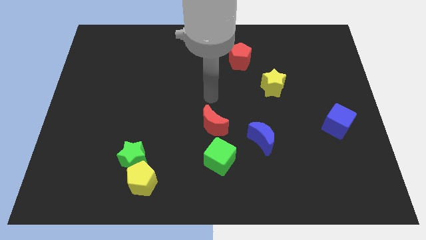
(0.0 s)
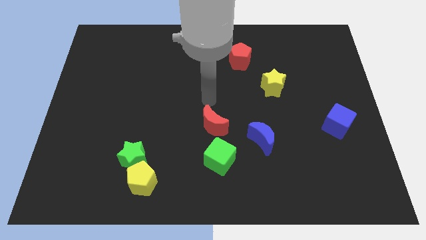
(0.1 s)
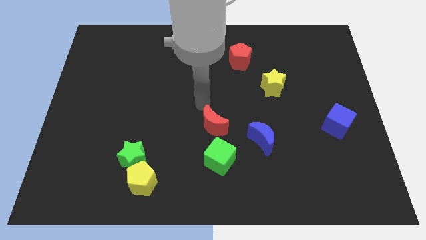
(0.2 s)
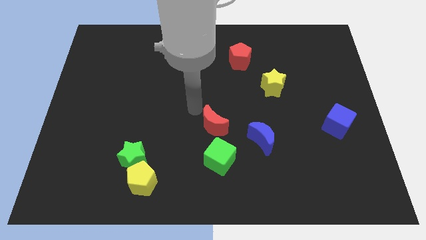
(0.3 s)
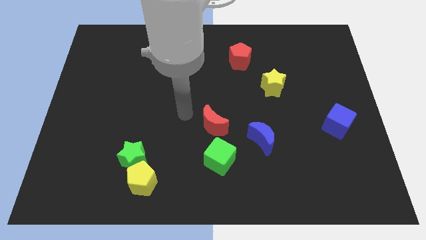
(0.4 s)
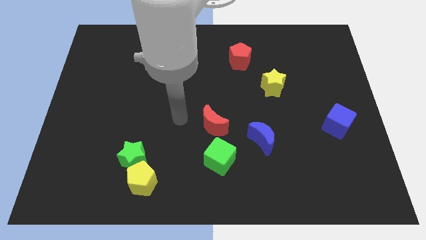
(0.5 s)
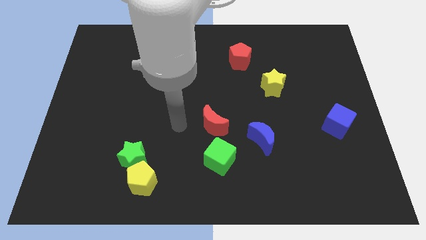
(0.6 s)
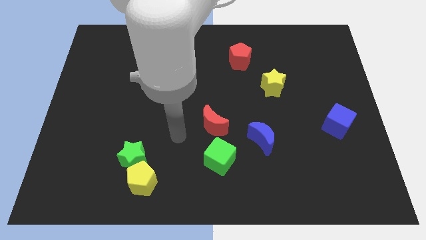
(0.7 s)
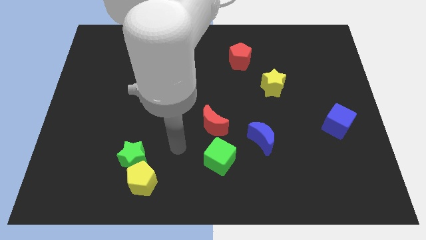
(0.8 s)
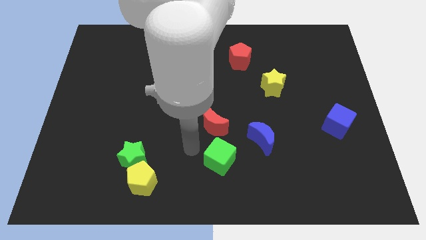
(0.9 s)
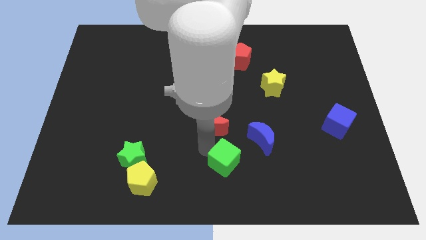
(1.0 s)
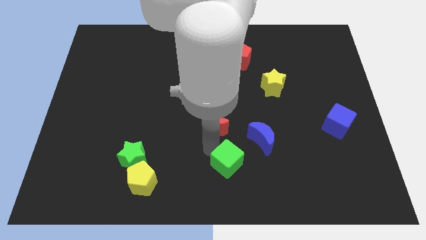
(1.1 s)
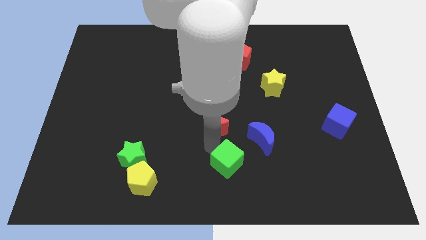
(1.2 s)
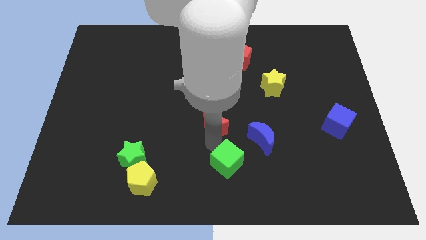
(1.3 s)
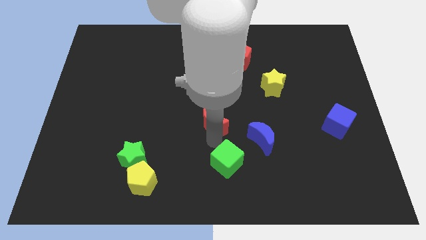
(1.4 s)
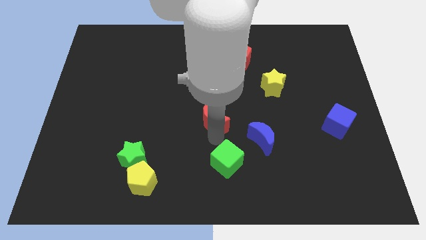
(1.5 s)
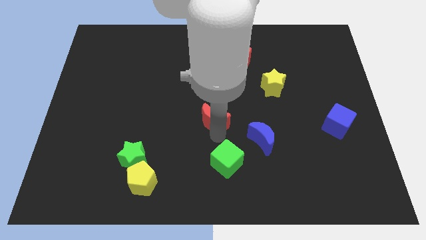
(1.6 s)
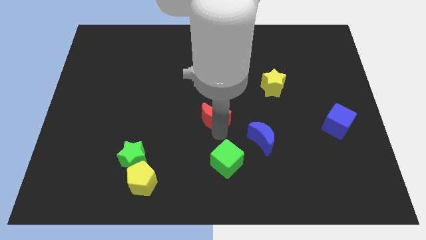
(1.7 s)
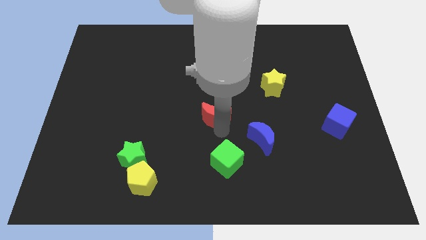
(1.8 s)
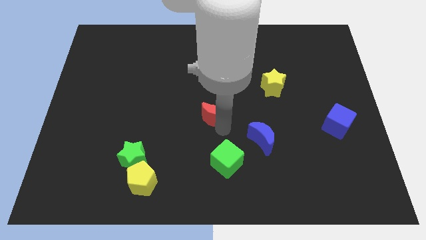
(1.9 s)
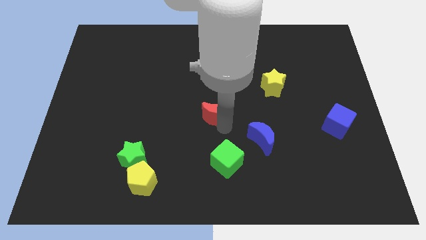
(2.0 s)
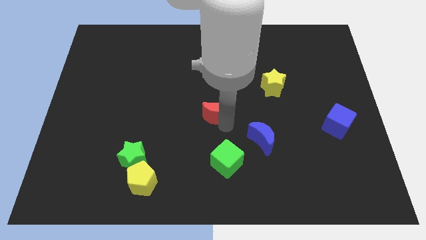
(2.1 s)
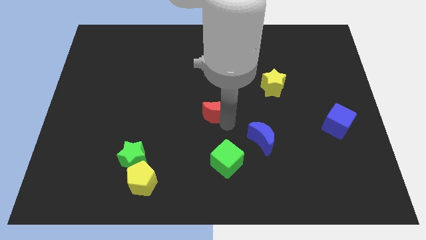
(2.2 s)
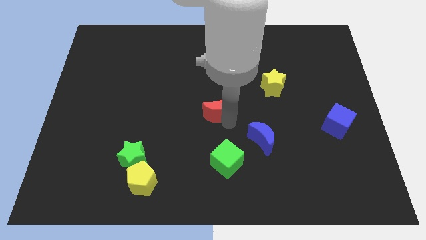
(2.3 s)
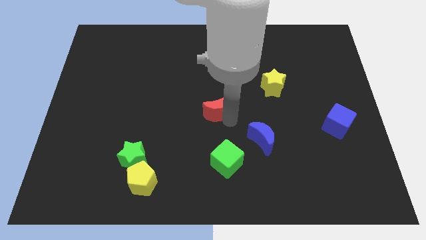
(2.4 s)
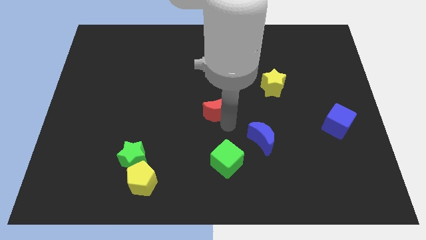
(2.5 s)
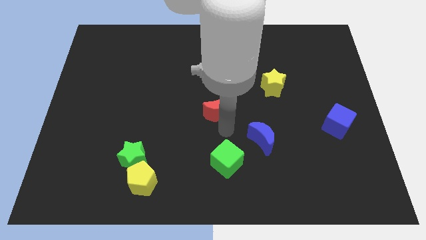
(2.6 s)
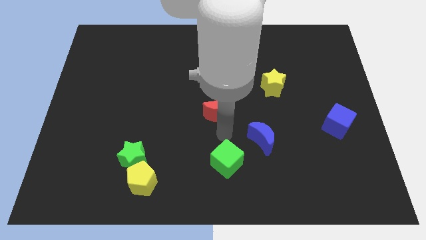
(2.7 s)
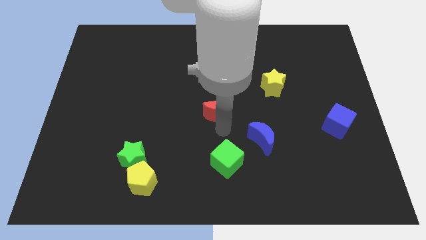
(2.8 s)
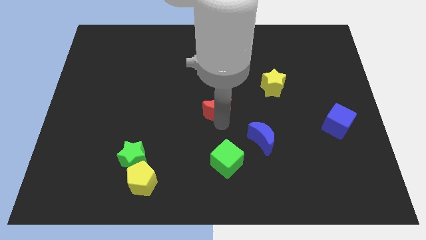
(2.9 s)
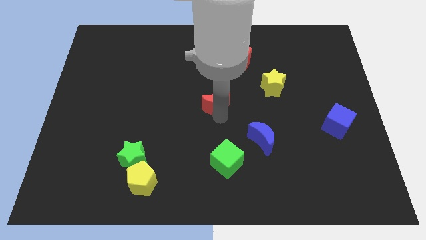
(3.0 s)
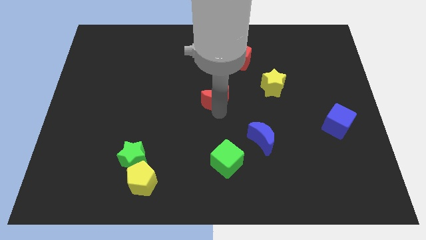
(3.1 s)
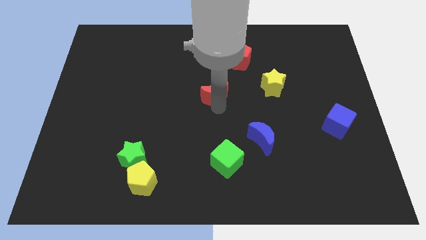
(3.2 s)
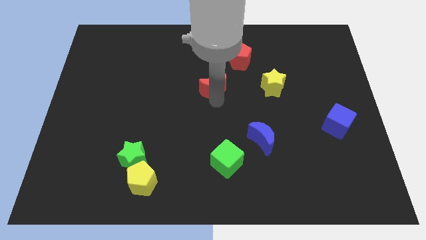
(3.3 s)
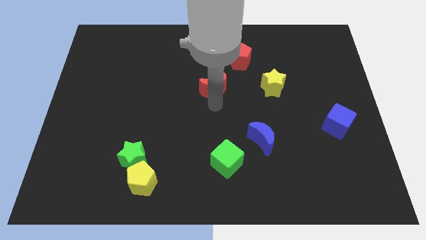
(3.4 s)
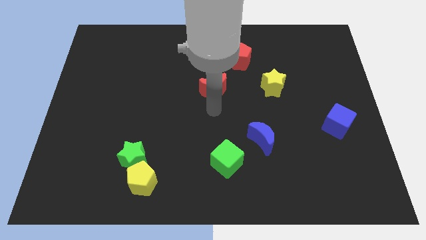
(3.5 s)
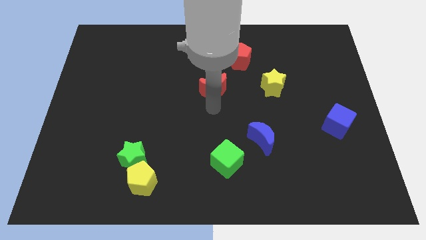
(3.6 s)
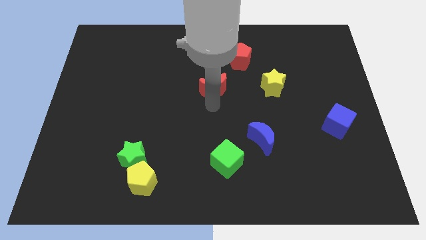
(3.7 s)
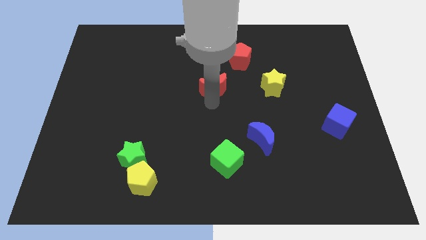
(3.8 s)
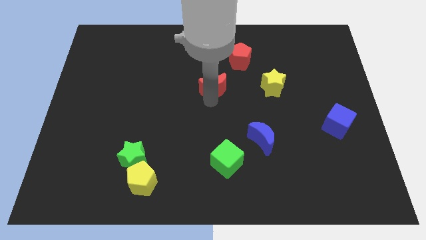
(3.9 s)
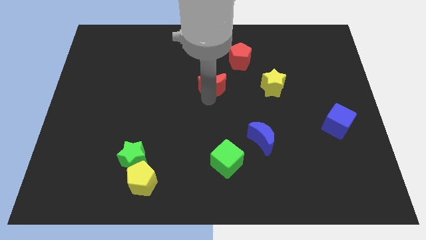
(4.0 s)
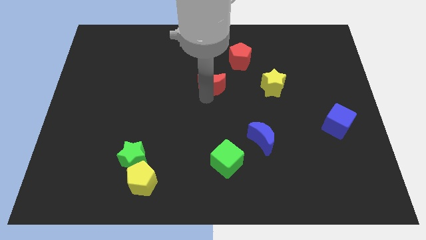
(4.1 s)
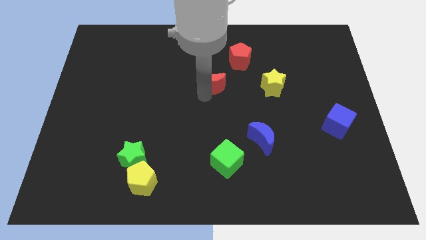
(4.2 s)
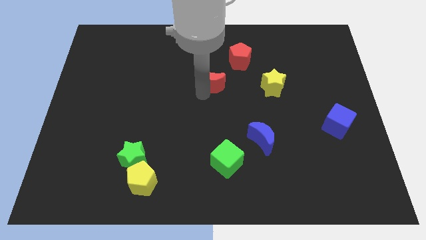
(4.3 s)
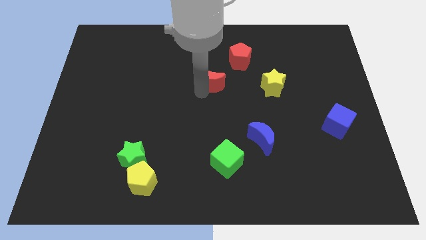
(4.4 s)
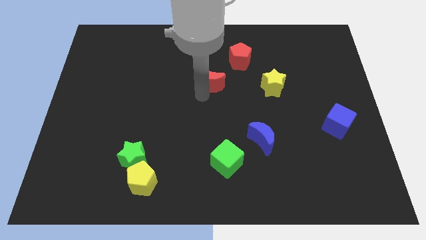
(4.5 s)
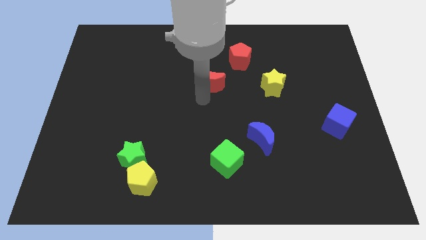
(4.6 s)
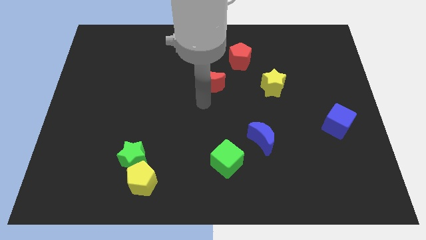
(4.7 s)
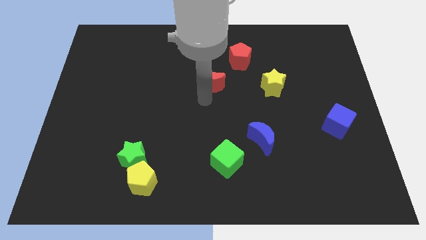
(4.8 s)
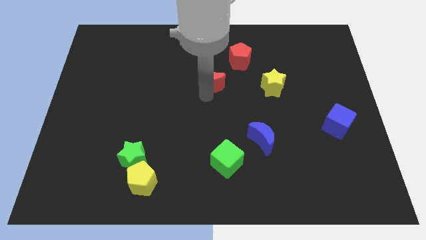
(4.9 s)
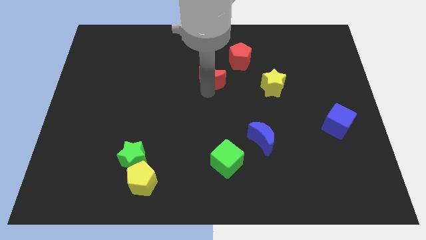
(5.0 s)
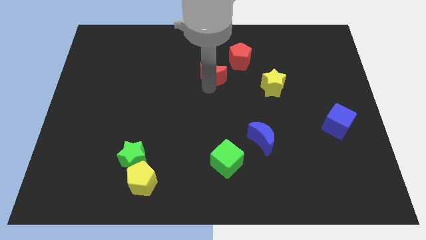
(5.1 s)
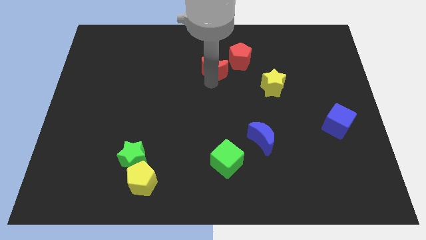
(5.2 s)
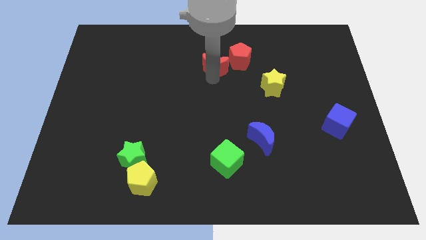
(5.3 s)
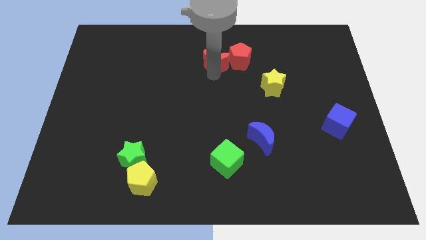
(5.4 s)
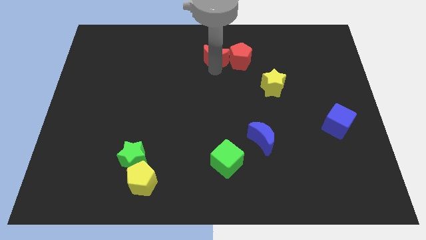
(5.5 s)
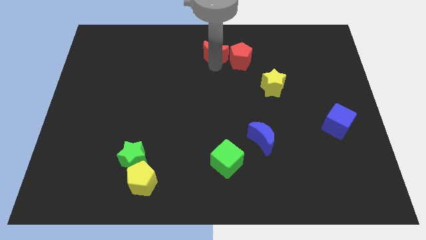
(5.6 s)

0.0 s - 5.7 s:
push the red moon to the top side

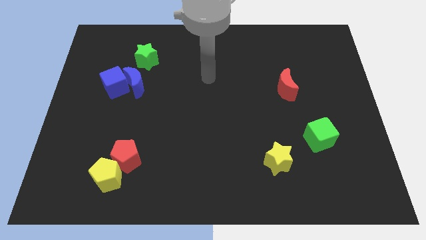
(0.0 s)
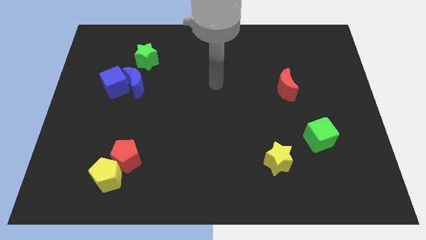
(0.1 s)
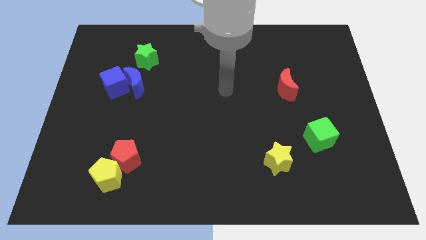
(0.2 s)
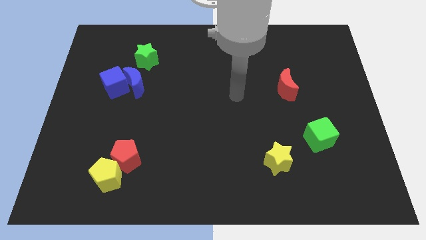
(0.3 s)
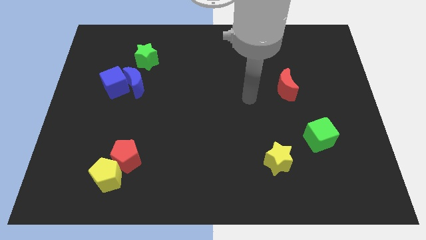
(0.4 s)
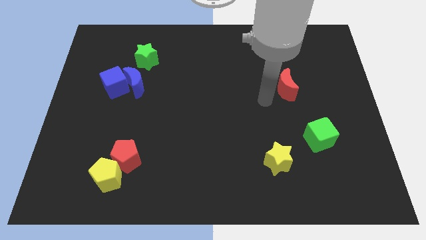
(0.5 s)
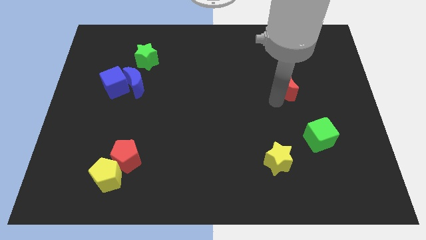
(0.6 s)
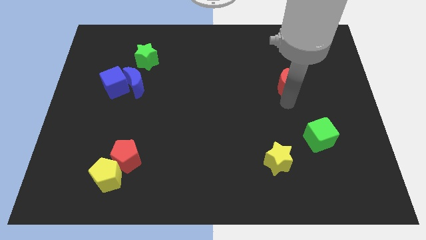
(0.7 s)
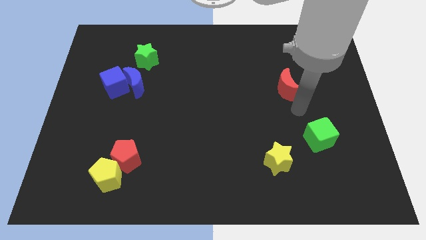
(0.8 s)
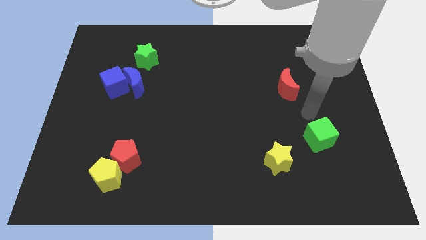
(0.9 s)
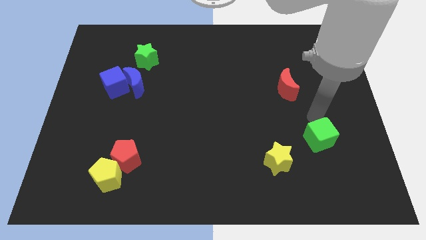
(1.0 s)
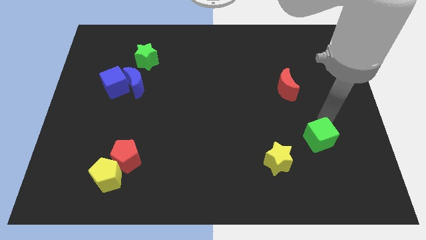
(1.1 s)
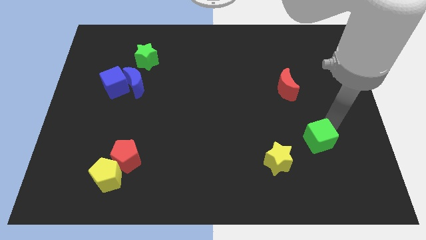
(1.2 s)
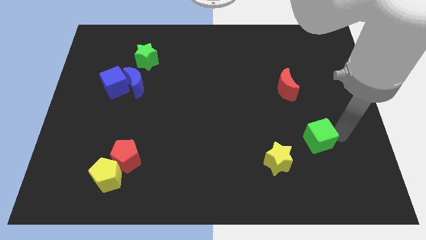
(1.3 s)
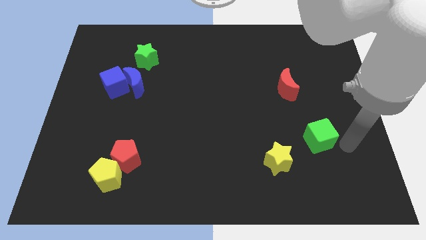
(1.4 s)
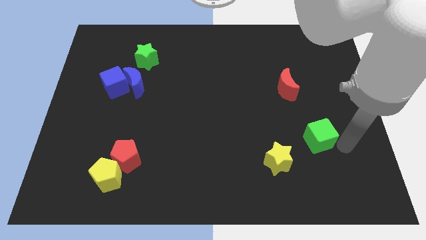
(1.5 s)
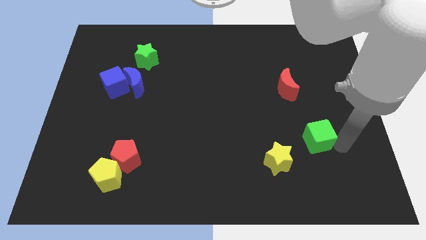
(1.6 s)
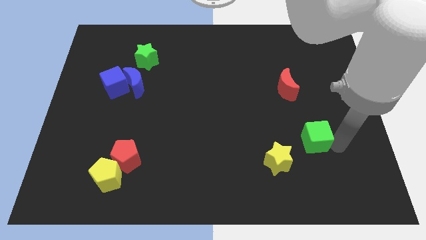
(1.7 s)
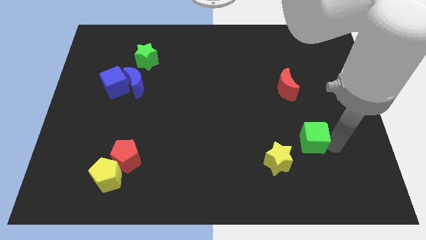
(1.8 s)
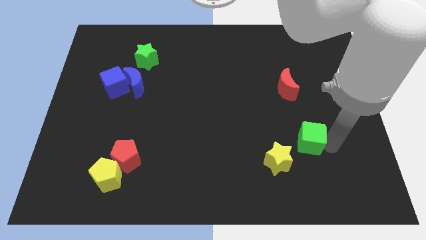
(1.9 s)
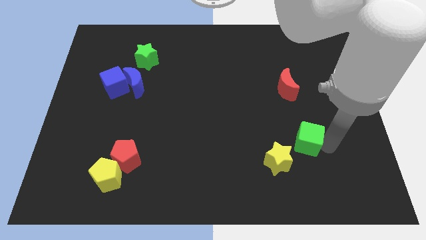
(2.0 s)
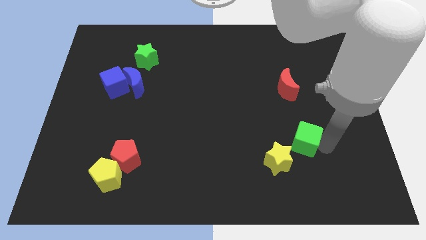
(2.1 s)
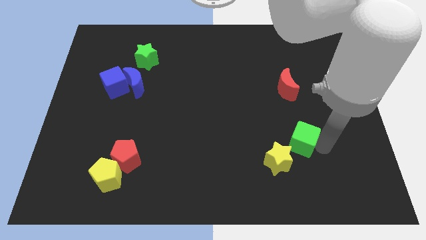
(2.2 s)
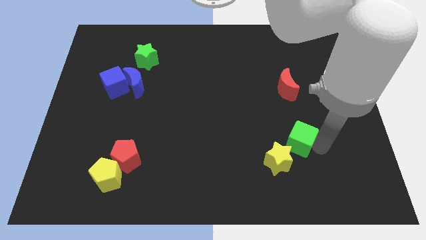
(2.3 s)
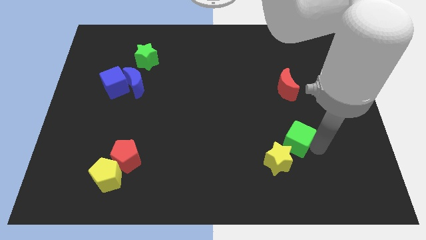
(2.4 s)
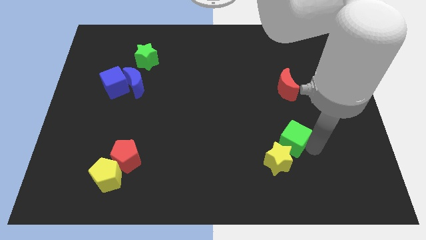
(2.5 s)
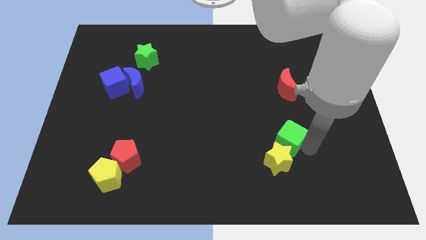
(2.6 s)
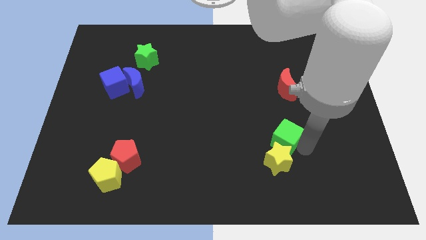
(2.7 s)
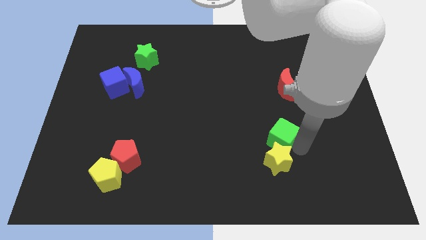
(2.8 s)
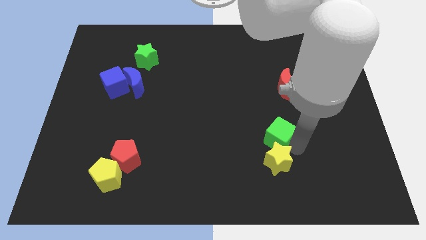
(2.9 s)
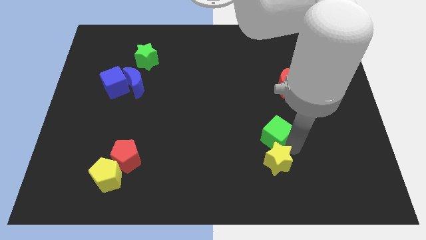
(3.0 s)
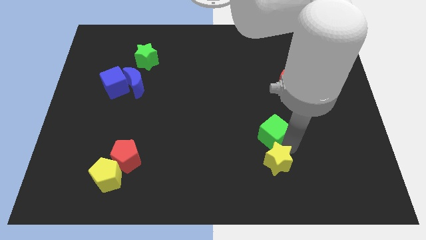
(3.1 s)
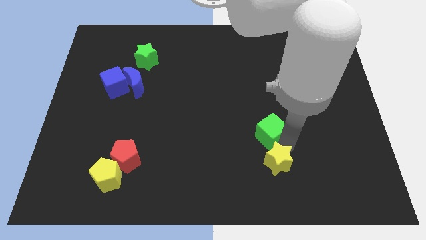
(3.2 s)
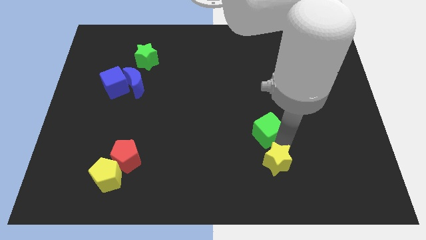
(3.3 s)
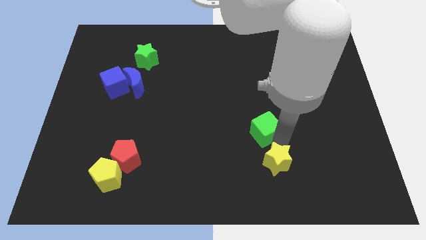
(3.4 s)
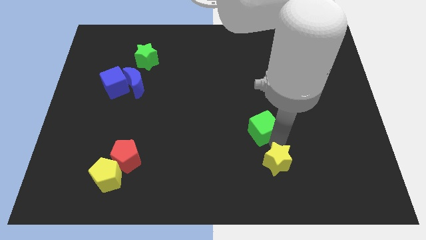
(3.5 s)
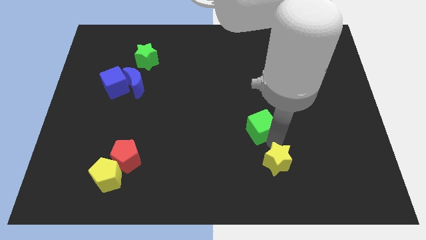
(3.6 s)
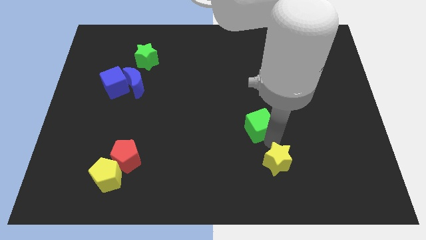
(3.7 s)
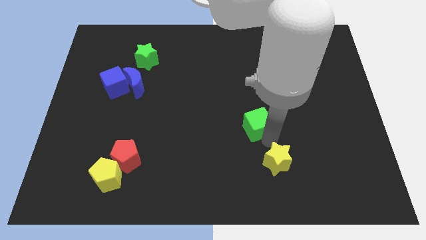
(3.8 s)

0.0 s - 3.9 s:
put the green cube to the center of the board
